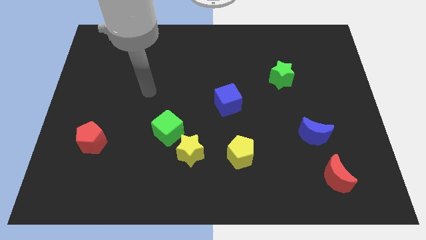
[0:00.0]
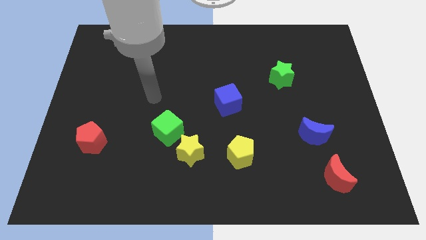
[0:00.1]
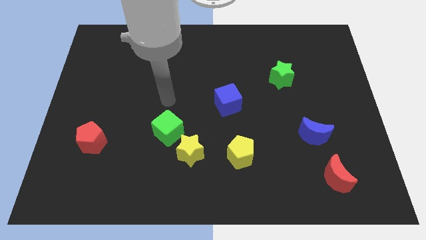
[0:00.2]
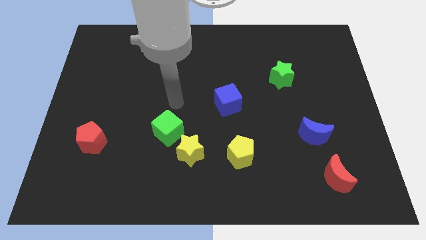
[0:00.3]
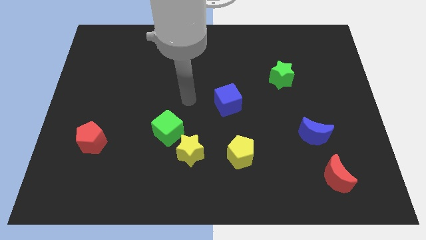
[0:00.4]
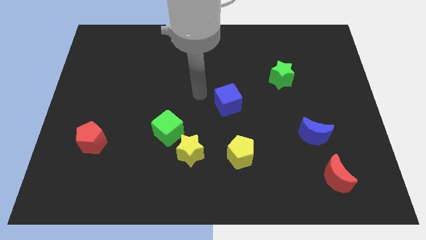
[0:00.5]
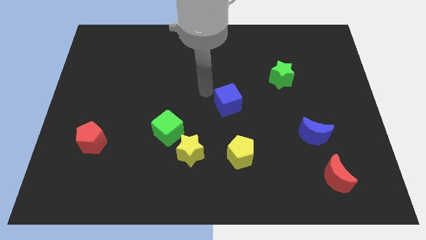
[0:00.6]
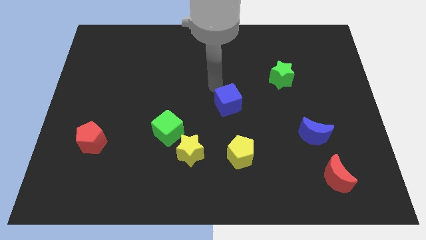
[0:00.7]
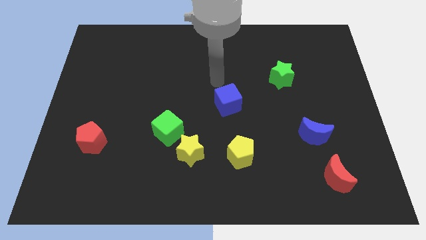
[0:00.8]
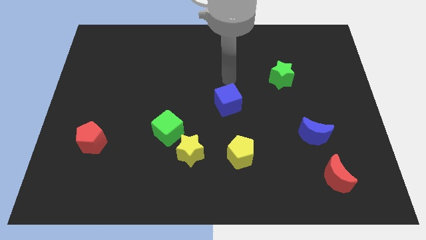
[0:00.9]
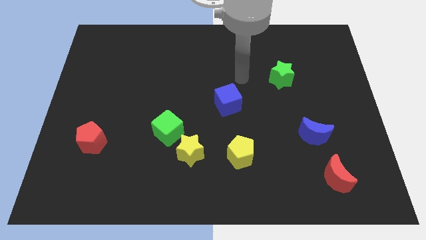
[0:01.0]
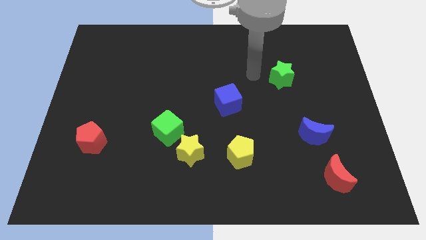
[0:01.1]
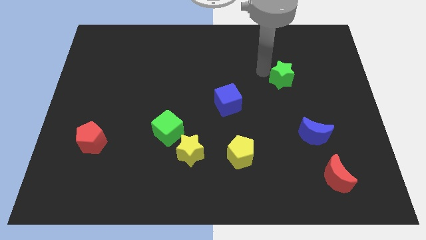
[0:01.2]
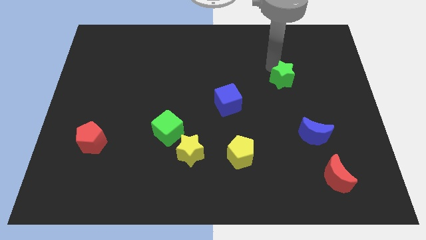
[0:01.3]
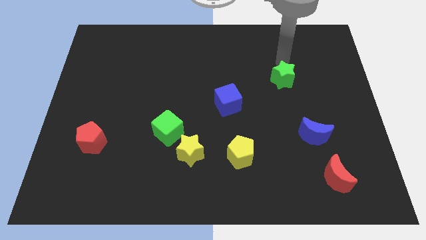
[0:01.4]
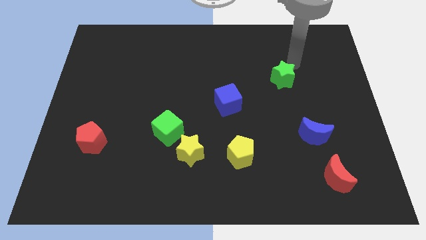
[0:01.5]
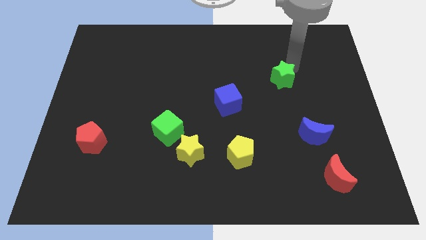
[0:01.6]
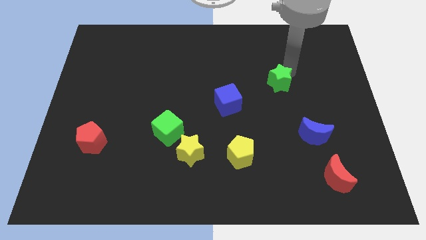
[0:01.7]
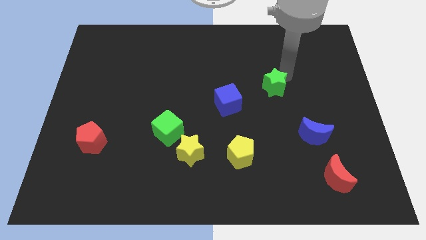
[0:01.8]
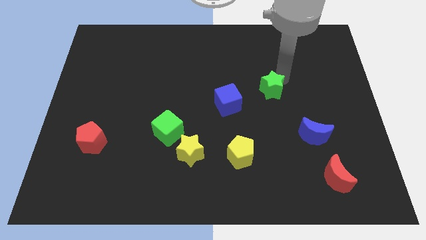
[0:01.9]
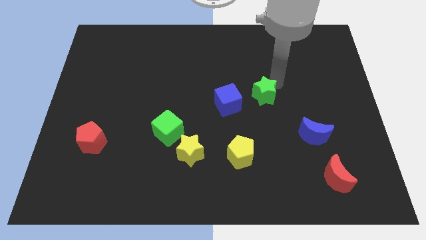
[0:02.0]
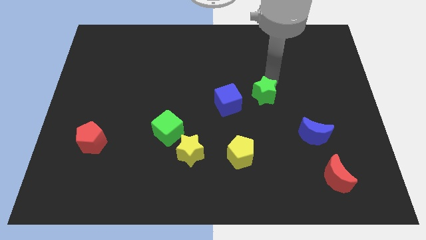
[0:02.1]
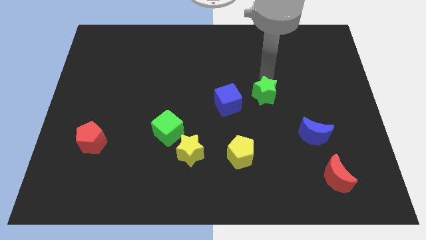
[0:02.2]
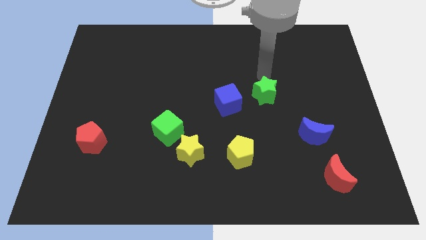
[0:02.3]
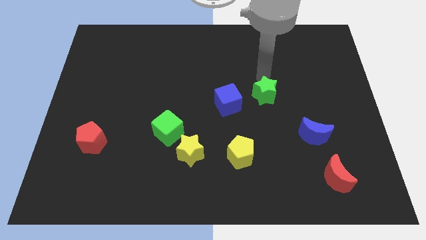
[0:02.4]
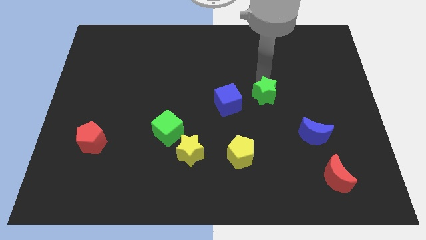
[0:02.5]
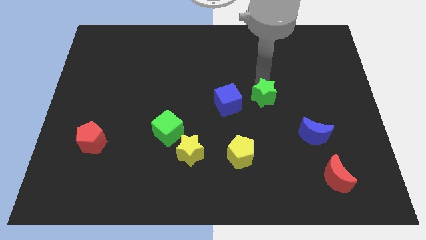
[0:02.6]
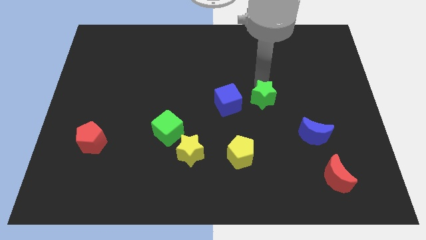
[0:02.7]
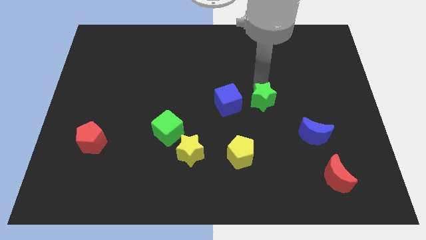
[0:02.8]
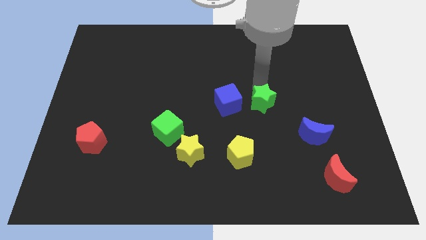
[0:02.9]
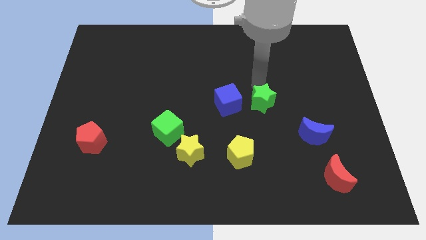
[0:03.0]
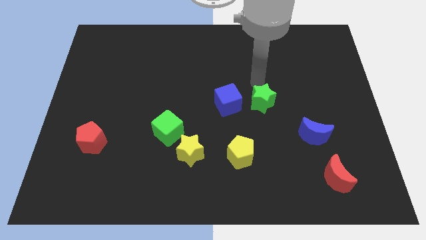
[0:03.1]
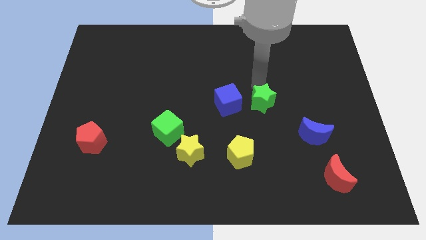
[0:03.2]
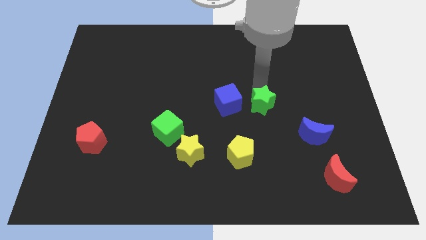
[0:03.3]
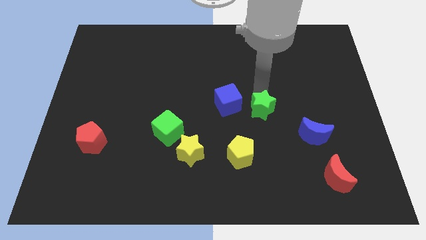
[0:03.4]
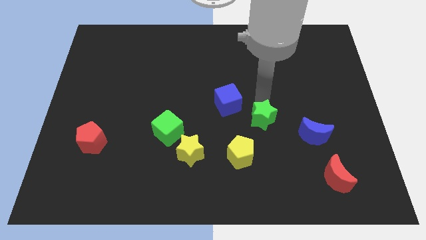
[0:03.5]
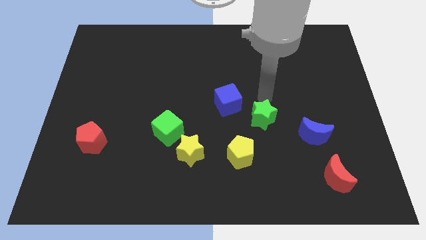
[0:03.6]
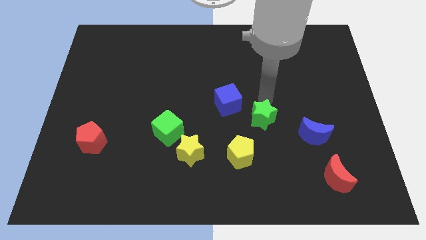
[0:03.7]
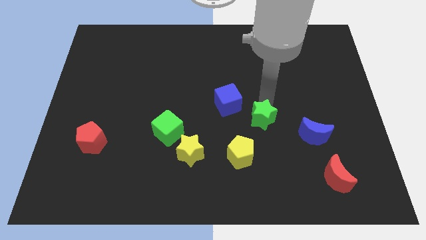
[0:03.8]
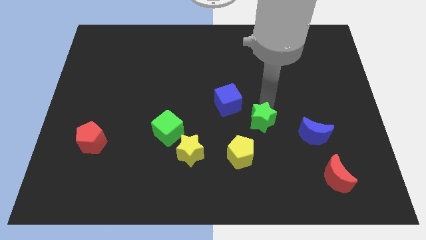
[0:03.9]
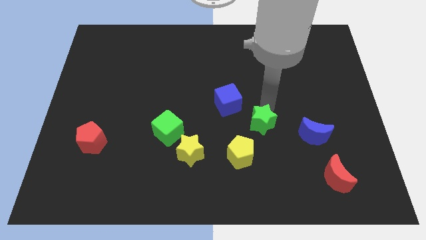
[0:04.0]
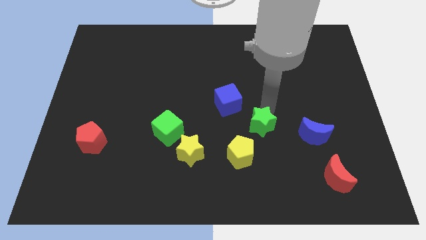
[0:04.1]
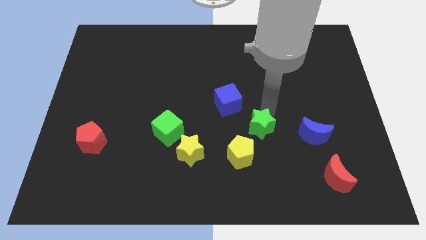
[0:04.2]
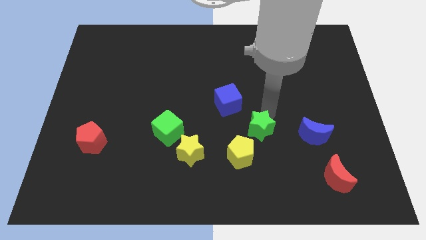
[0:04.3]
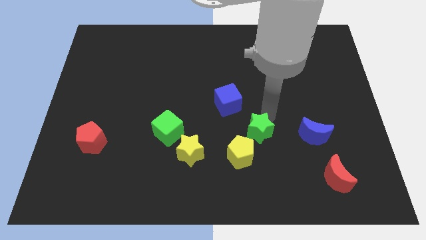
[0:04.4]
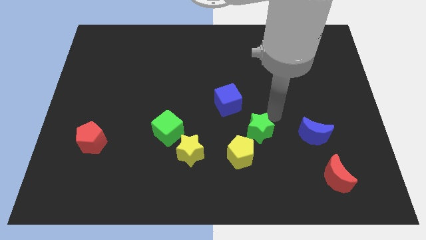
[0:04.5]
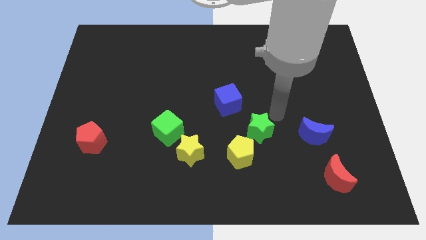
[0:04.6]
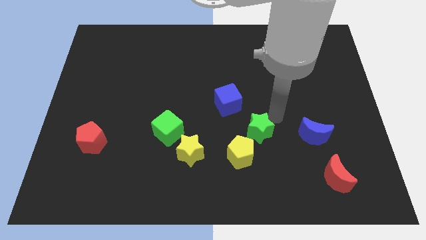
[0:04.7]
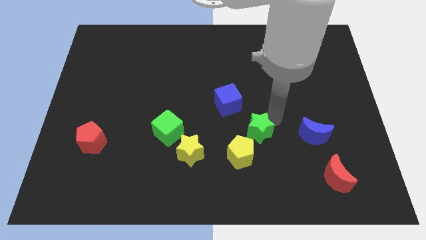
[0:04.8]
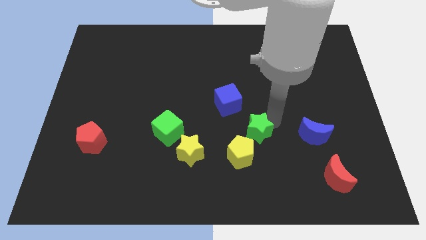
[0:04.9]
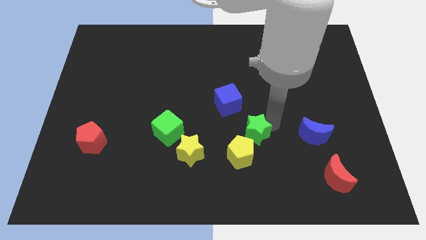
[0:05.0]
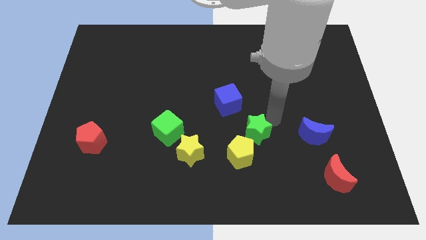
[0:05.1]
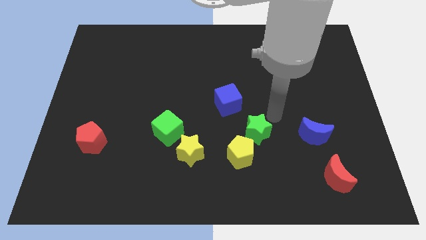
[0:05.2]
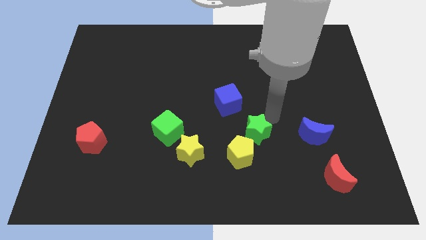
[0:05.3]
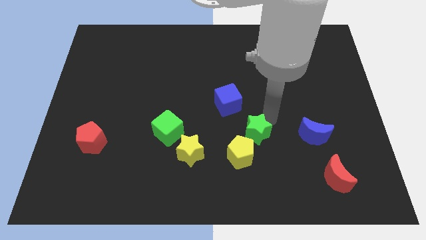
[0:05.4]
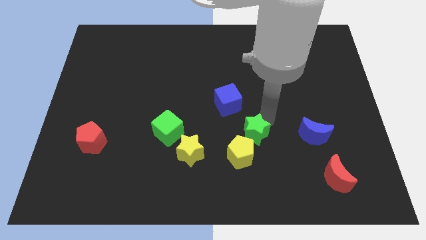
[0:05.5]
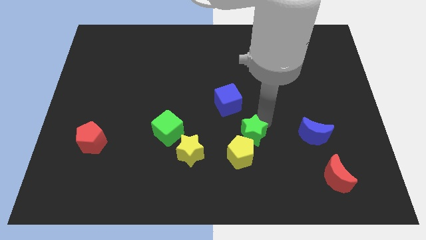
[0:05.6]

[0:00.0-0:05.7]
move the green star to the right side of the yellow star

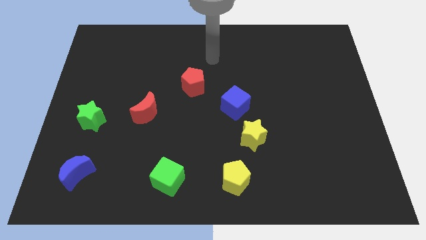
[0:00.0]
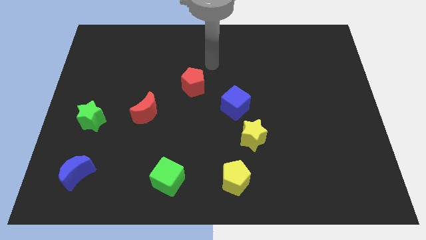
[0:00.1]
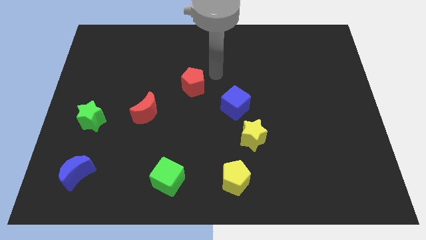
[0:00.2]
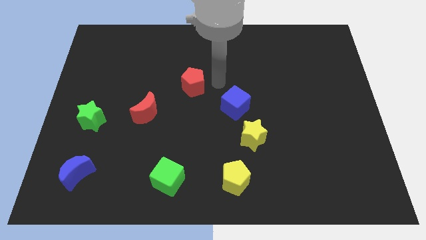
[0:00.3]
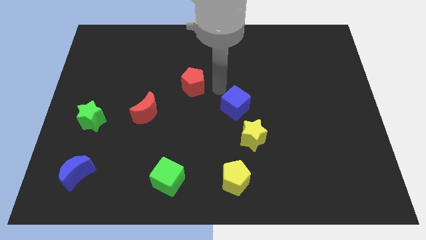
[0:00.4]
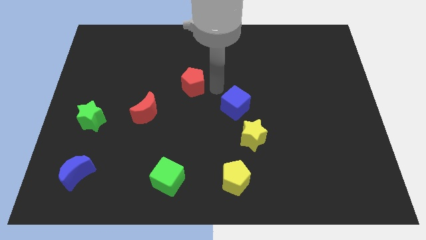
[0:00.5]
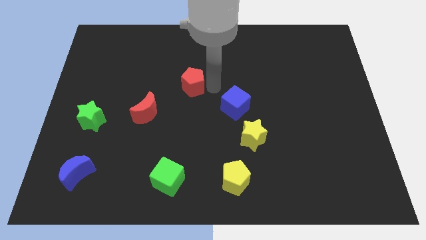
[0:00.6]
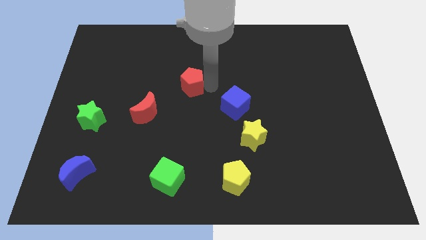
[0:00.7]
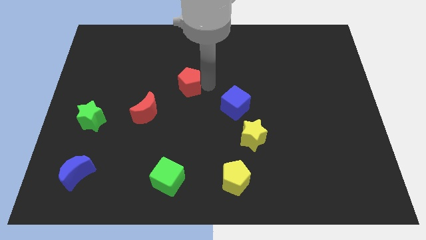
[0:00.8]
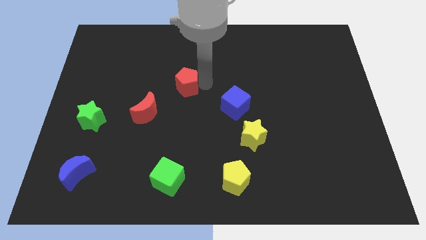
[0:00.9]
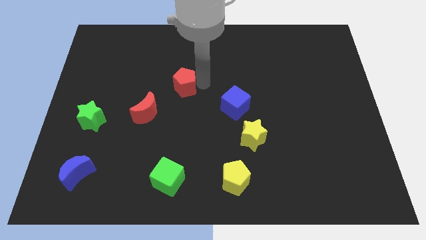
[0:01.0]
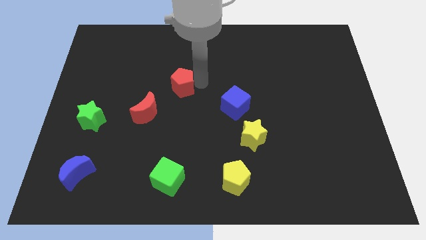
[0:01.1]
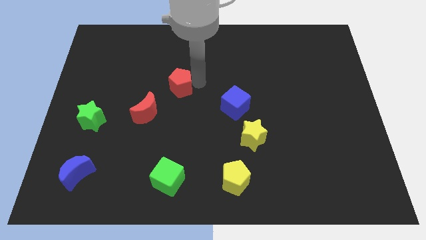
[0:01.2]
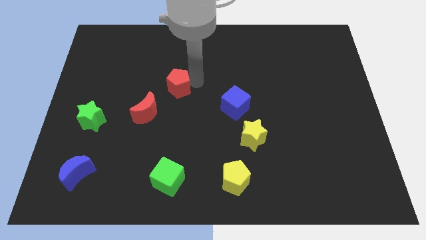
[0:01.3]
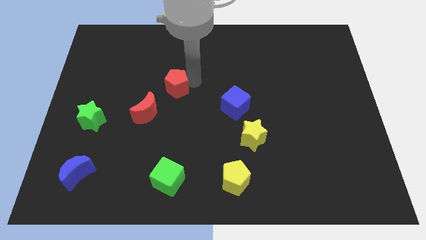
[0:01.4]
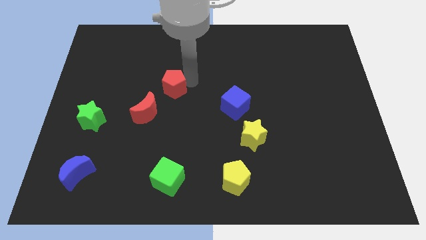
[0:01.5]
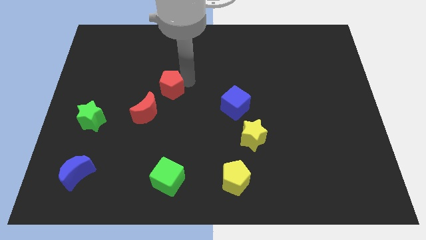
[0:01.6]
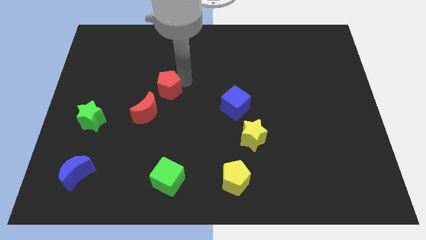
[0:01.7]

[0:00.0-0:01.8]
push the red pentagon above the red moon
